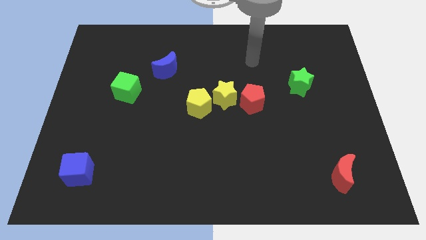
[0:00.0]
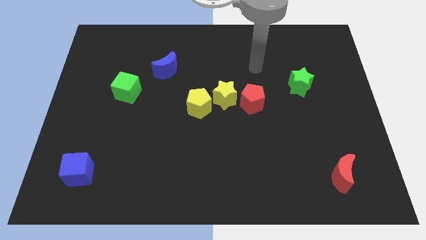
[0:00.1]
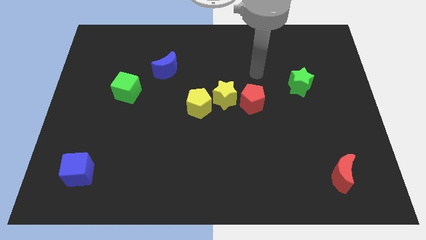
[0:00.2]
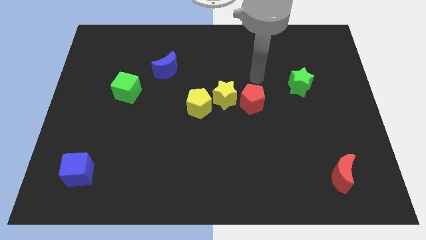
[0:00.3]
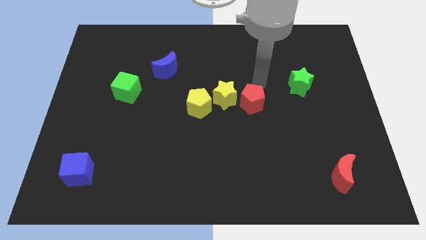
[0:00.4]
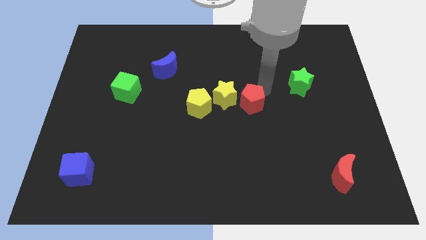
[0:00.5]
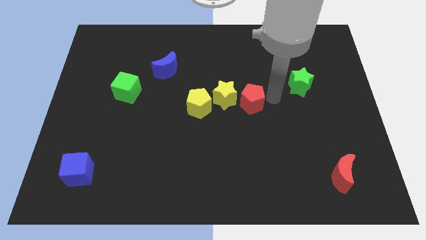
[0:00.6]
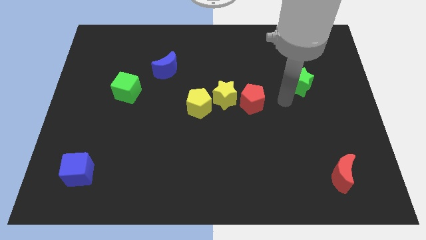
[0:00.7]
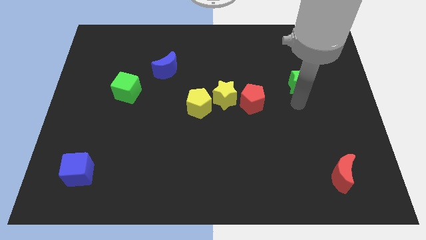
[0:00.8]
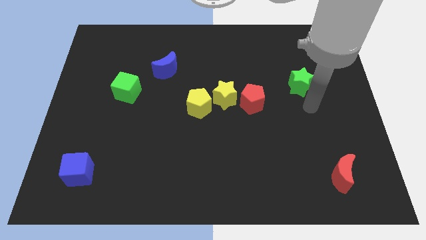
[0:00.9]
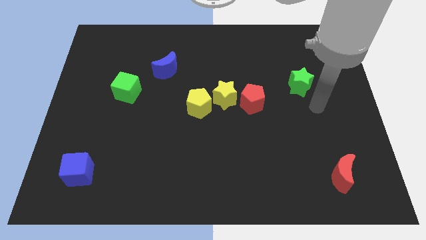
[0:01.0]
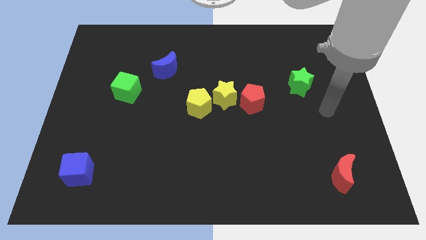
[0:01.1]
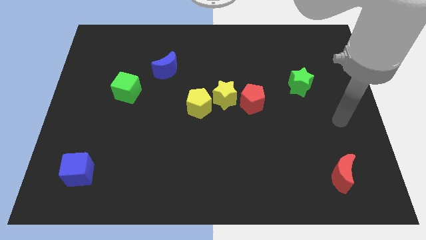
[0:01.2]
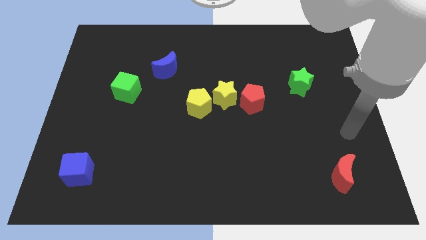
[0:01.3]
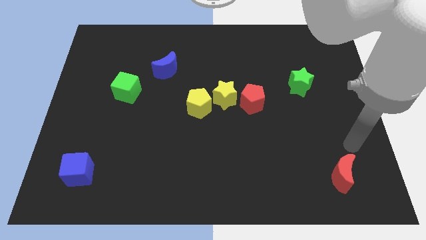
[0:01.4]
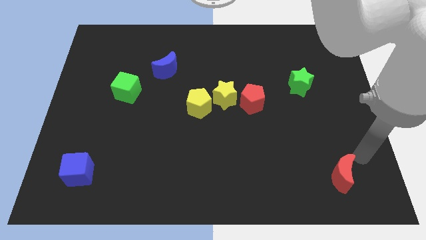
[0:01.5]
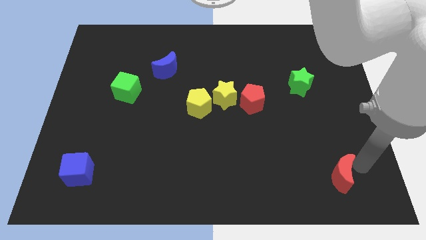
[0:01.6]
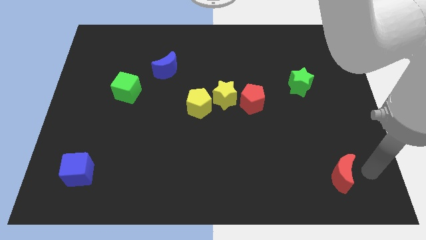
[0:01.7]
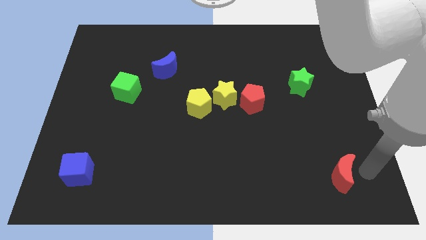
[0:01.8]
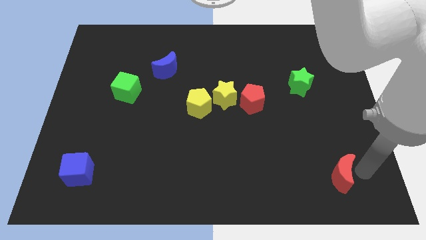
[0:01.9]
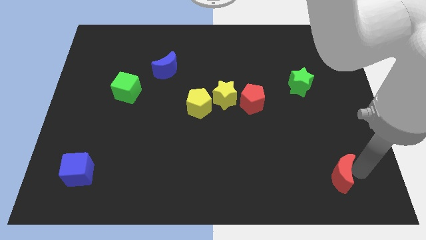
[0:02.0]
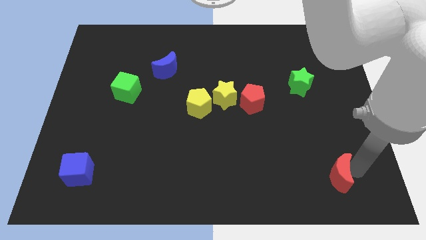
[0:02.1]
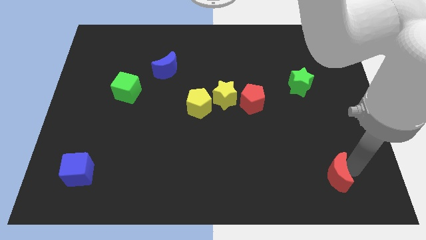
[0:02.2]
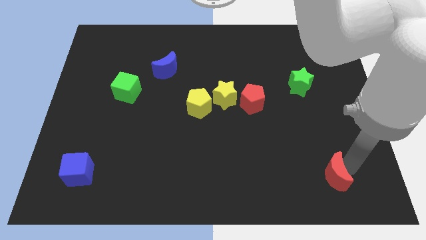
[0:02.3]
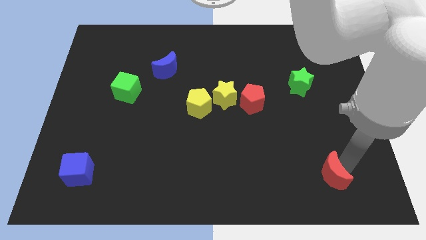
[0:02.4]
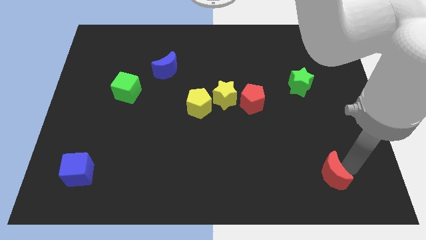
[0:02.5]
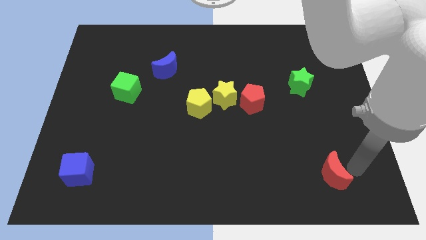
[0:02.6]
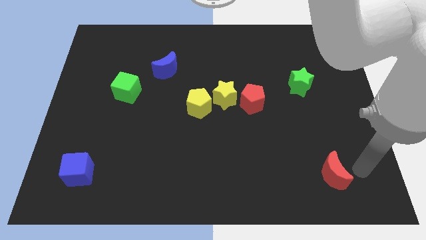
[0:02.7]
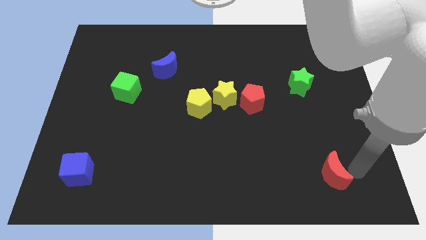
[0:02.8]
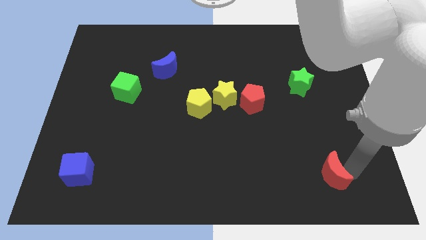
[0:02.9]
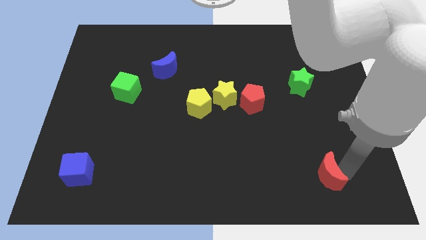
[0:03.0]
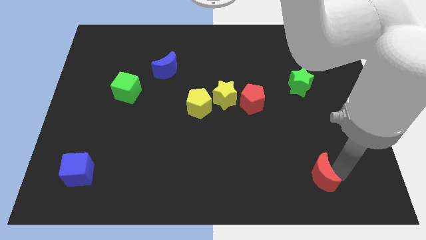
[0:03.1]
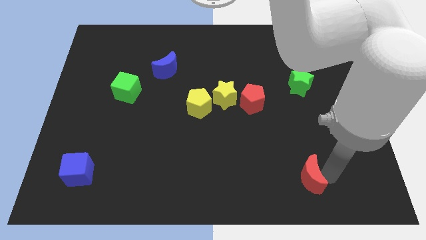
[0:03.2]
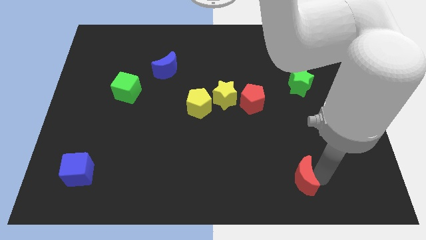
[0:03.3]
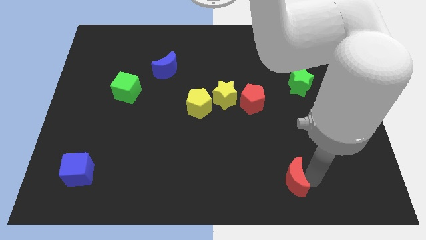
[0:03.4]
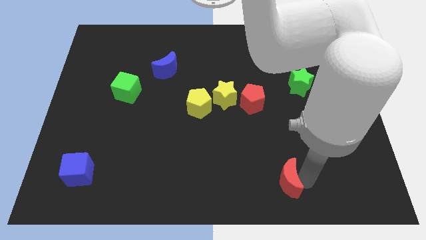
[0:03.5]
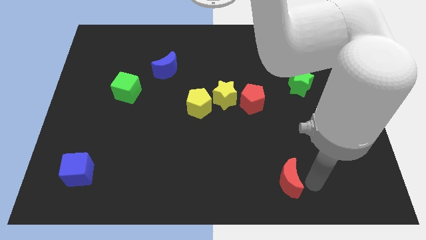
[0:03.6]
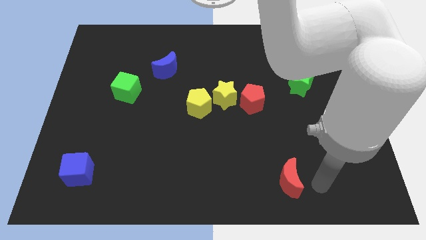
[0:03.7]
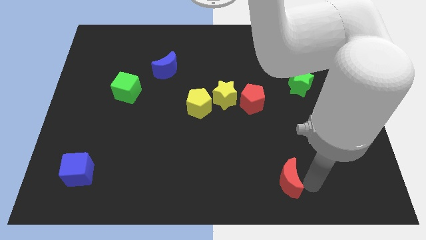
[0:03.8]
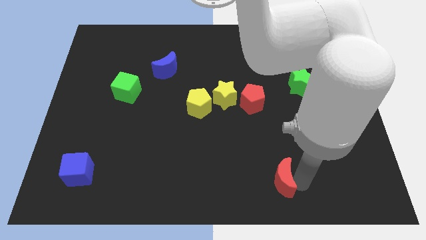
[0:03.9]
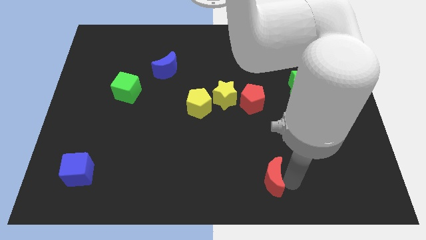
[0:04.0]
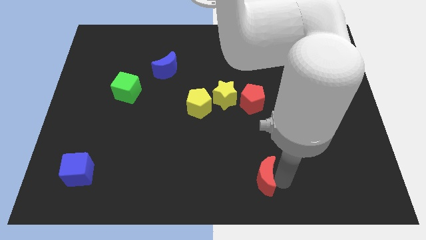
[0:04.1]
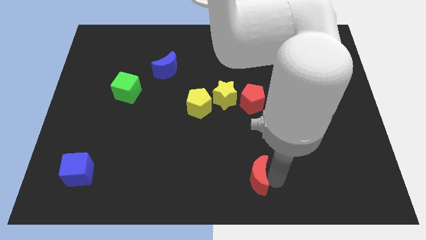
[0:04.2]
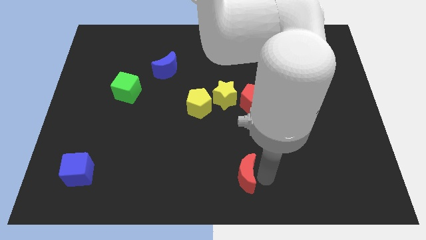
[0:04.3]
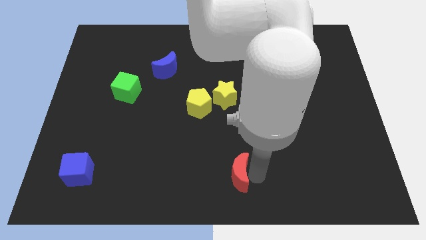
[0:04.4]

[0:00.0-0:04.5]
push the red moon left

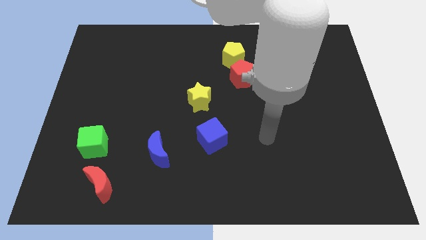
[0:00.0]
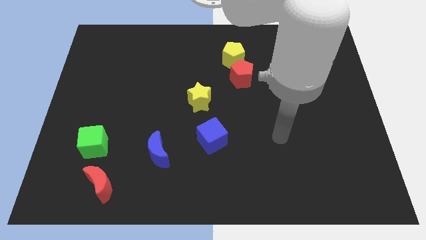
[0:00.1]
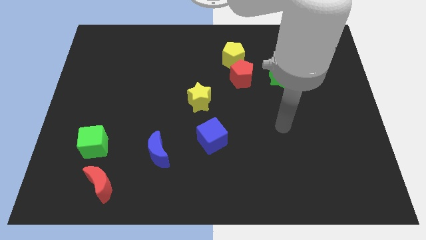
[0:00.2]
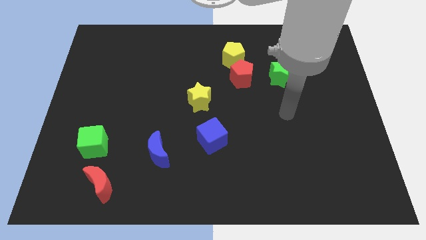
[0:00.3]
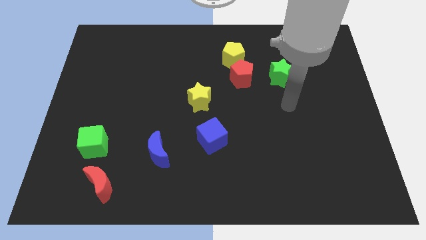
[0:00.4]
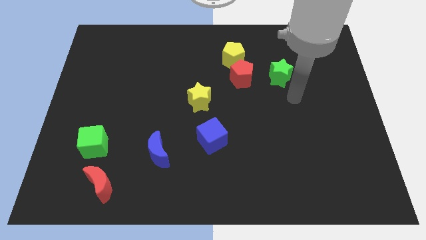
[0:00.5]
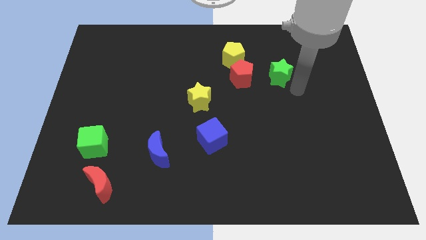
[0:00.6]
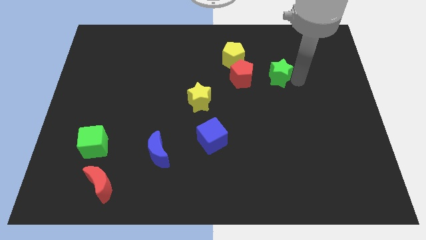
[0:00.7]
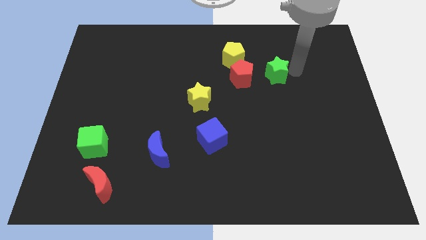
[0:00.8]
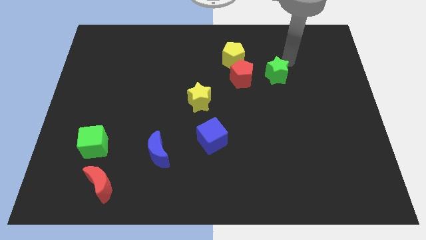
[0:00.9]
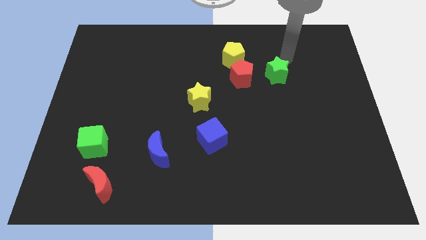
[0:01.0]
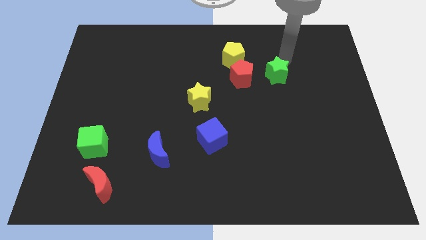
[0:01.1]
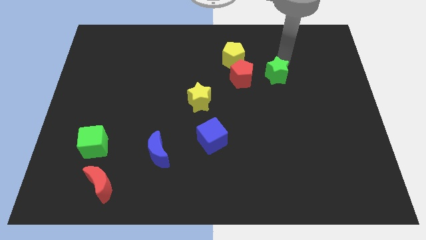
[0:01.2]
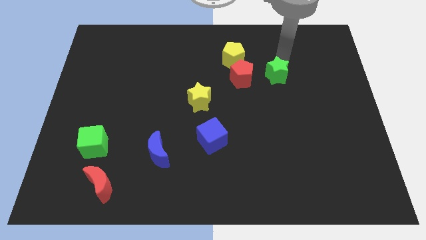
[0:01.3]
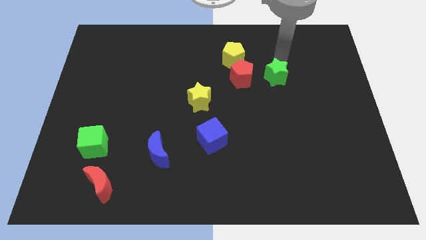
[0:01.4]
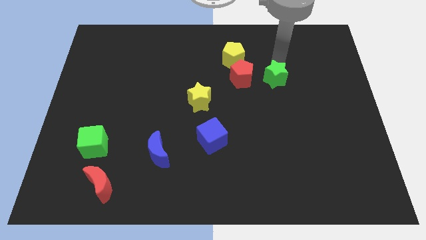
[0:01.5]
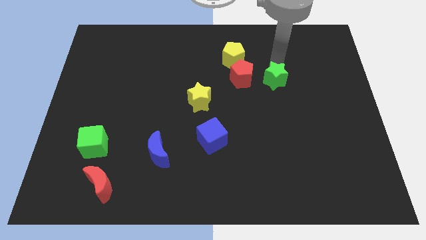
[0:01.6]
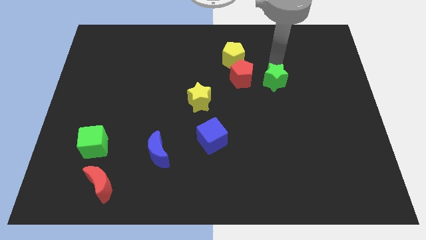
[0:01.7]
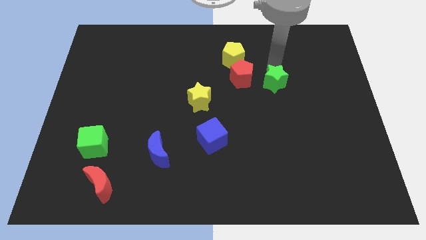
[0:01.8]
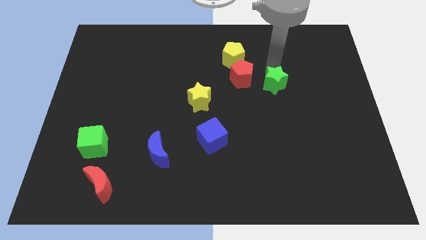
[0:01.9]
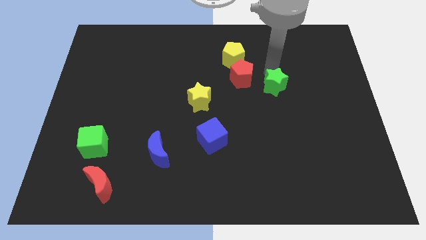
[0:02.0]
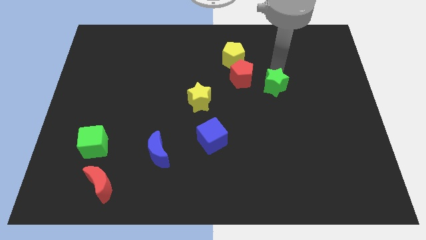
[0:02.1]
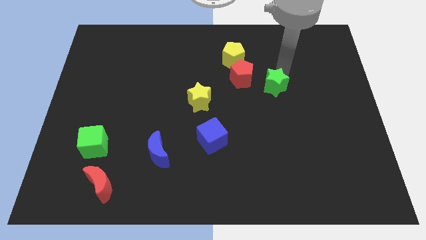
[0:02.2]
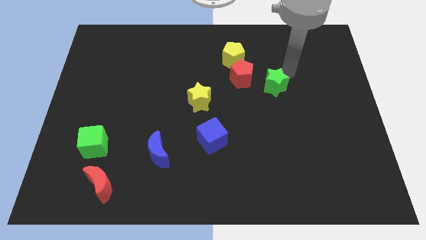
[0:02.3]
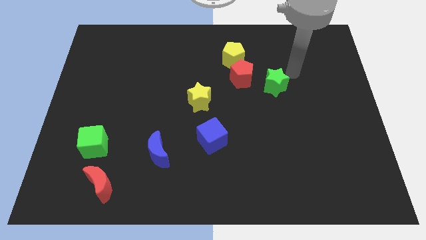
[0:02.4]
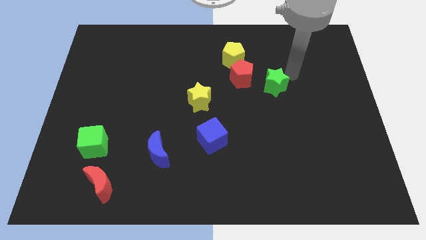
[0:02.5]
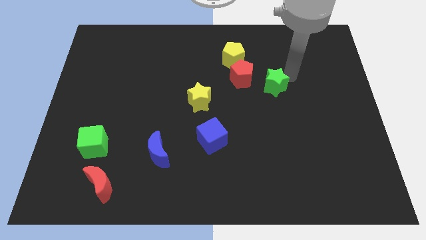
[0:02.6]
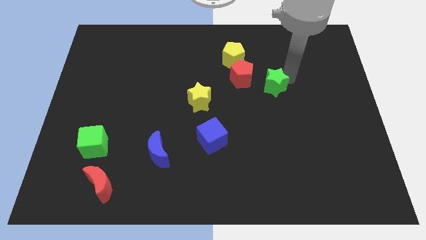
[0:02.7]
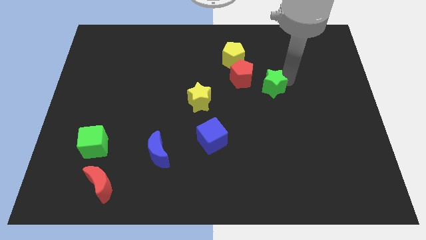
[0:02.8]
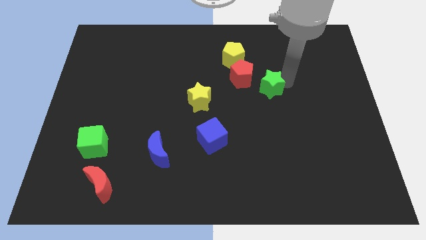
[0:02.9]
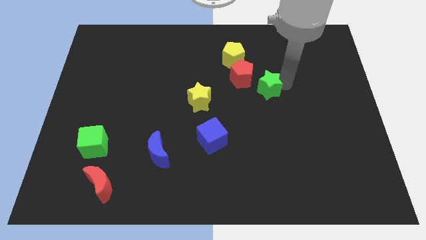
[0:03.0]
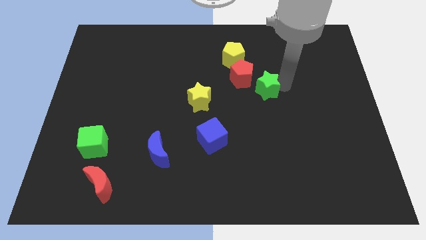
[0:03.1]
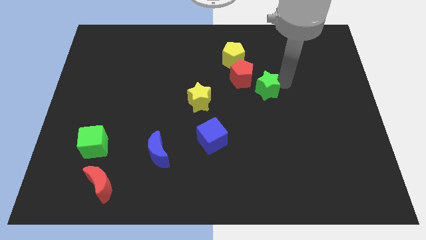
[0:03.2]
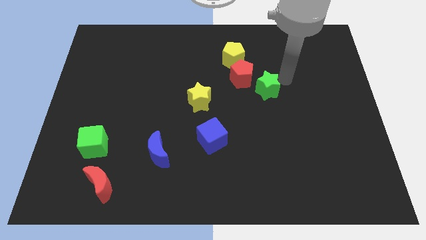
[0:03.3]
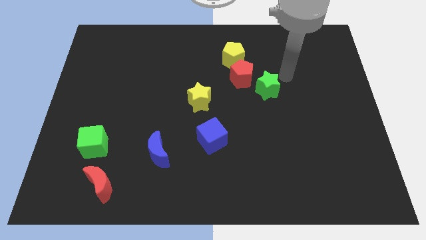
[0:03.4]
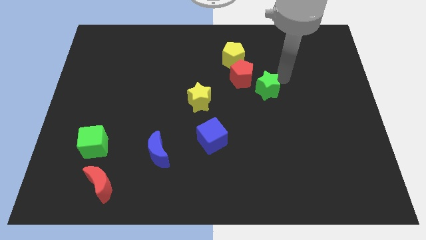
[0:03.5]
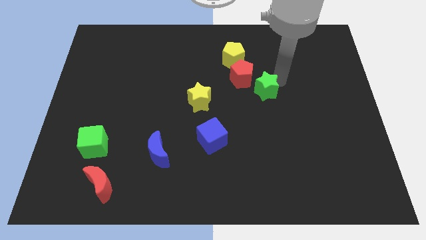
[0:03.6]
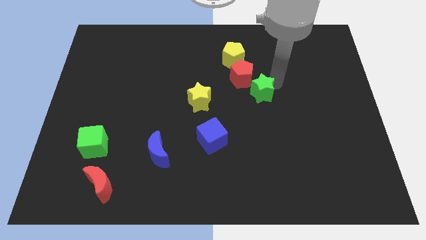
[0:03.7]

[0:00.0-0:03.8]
slide the green star diagonally downwards and to the left somewhat
